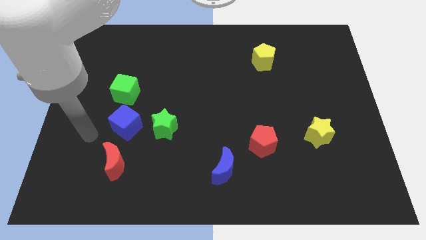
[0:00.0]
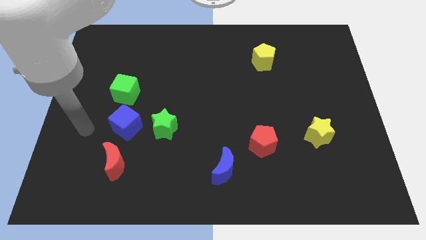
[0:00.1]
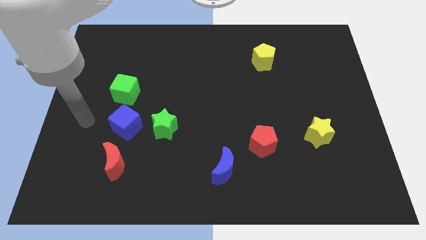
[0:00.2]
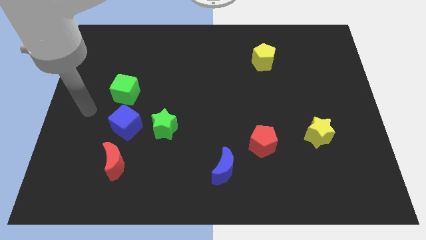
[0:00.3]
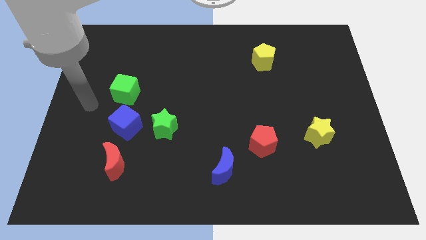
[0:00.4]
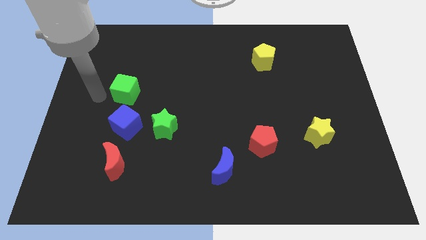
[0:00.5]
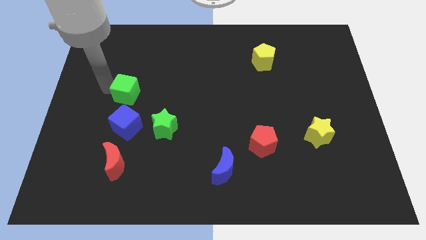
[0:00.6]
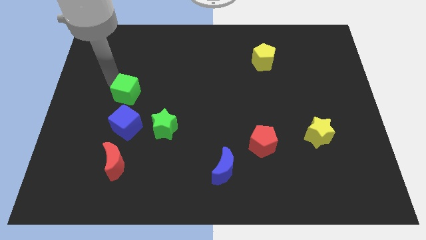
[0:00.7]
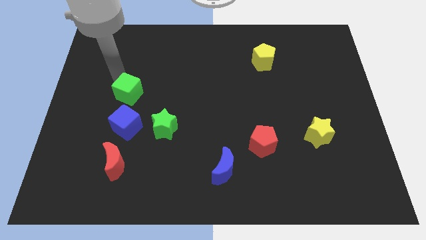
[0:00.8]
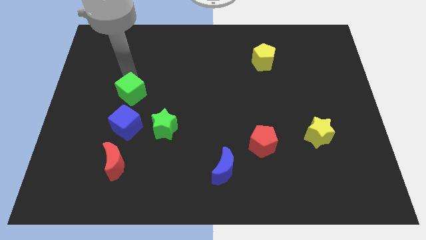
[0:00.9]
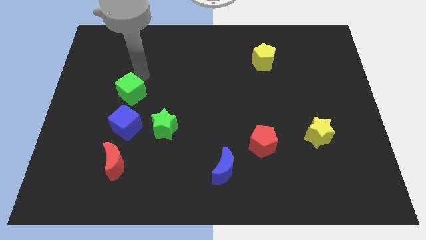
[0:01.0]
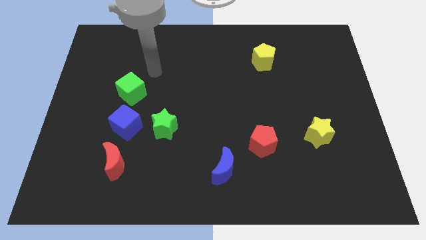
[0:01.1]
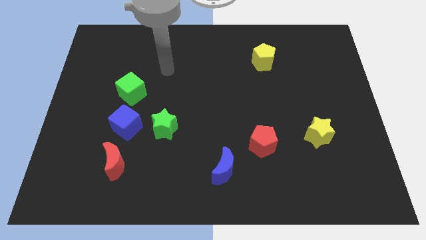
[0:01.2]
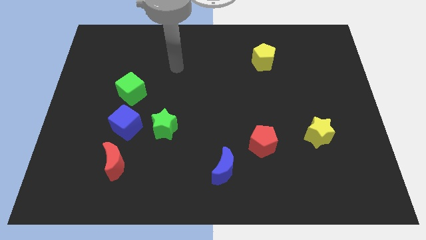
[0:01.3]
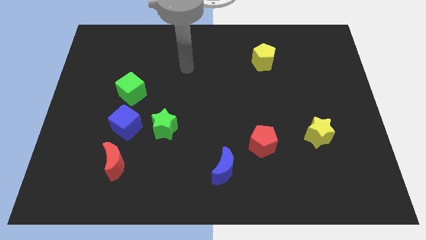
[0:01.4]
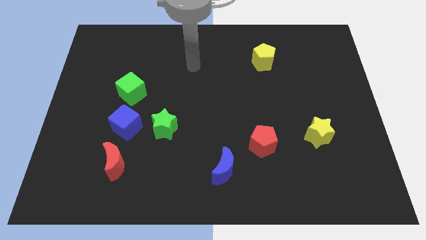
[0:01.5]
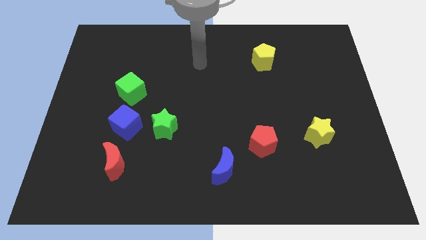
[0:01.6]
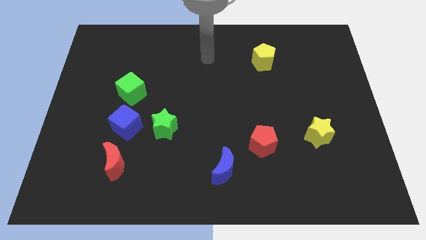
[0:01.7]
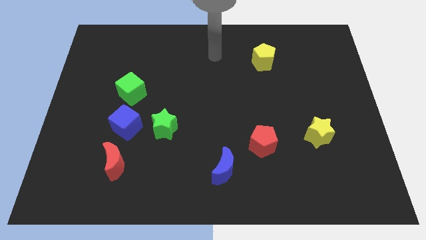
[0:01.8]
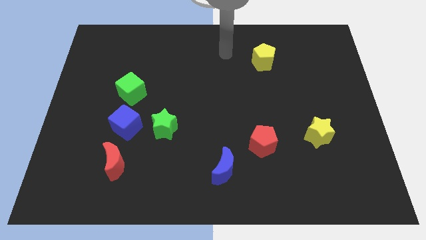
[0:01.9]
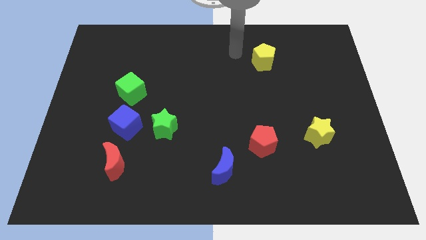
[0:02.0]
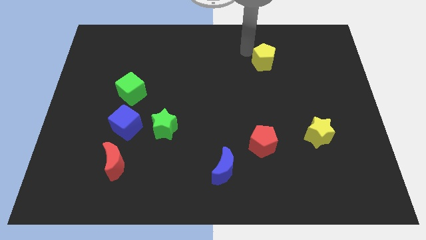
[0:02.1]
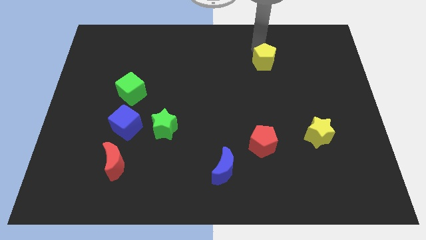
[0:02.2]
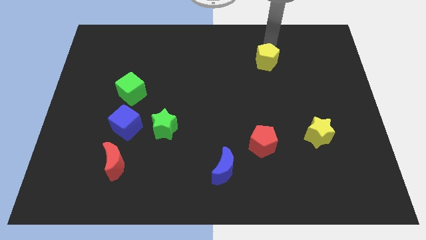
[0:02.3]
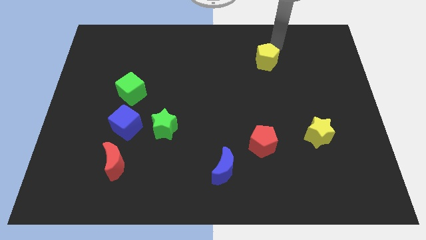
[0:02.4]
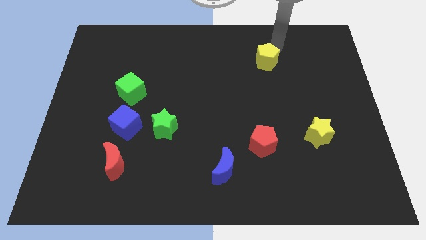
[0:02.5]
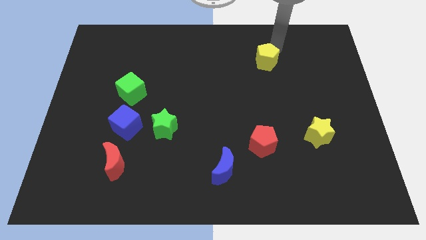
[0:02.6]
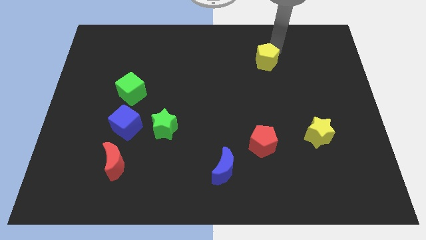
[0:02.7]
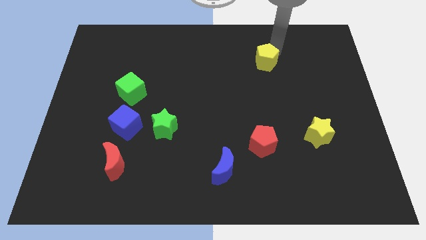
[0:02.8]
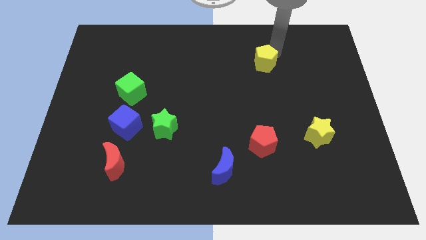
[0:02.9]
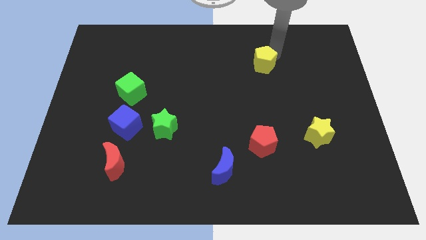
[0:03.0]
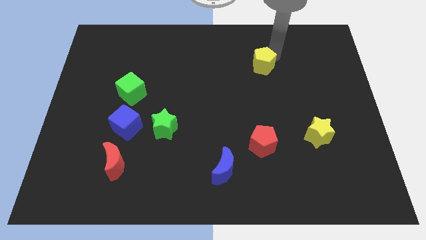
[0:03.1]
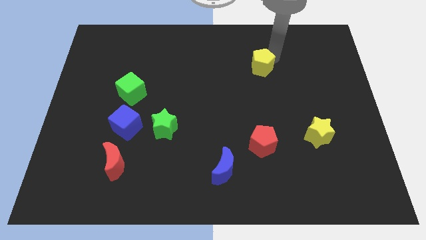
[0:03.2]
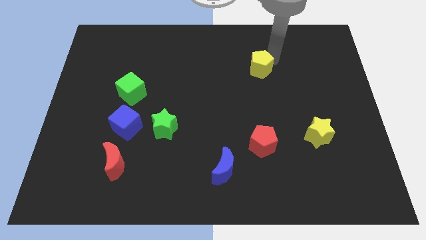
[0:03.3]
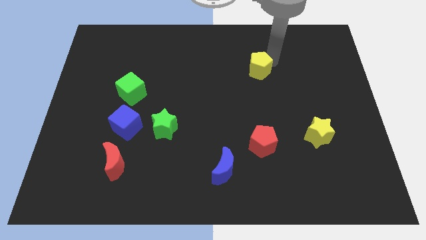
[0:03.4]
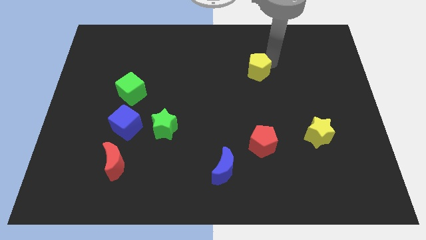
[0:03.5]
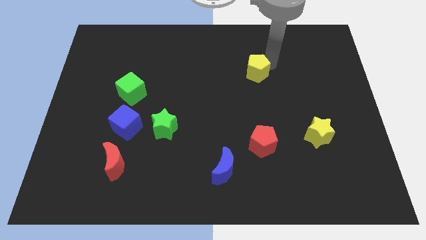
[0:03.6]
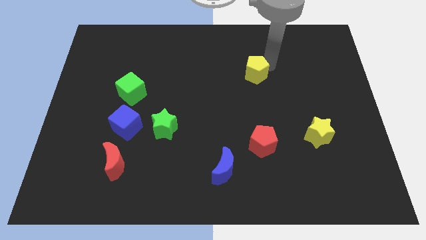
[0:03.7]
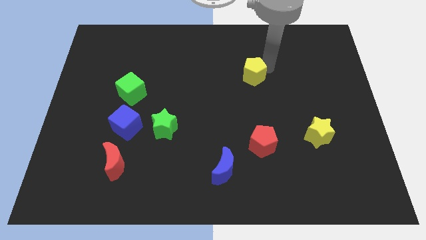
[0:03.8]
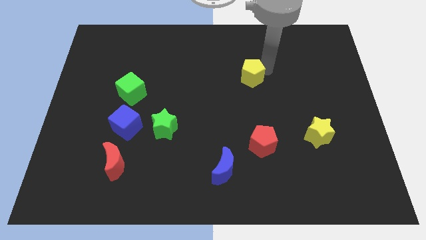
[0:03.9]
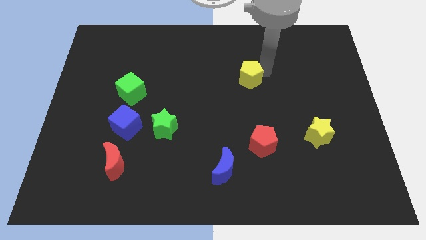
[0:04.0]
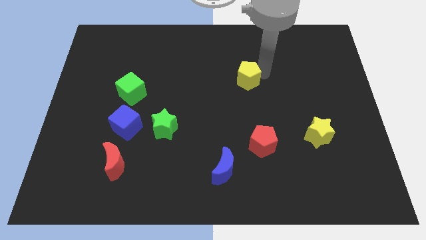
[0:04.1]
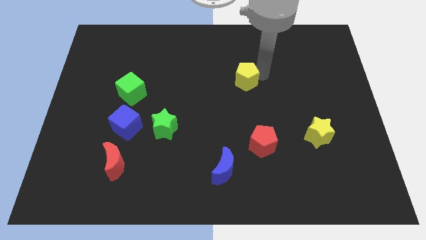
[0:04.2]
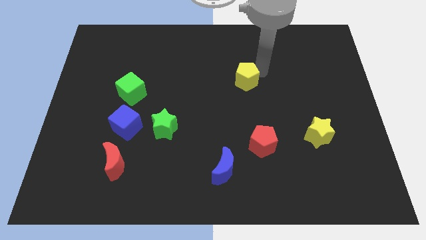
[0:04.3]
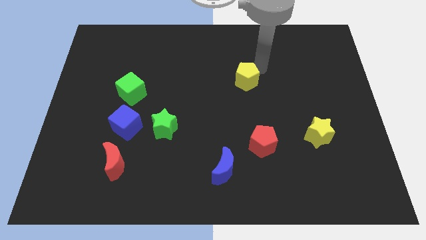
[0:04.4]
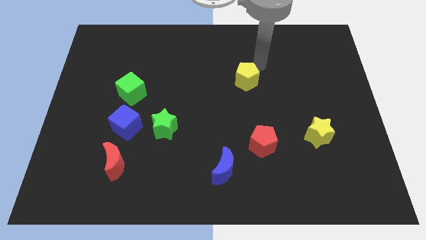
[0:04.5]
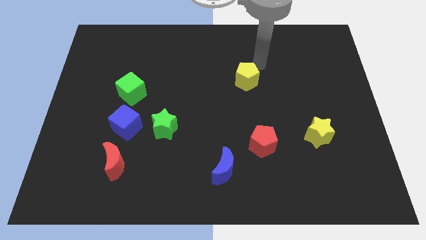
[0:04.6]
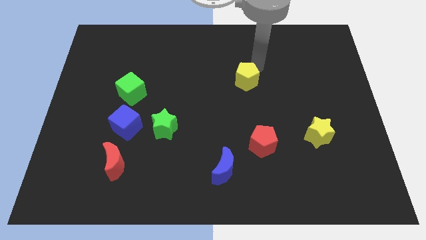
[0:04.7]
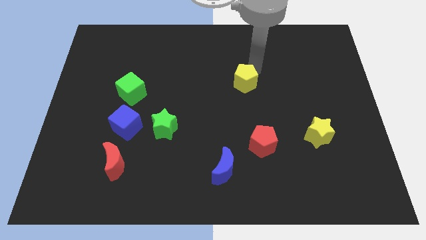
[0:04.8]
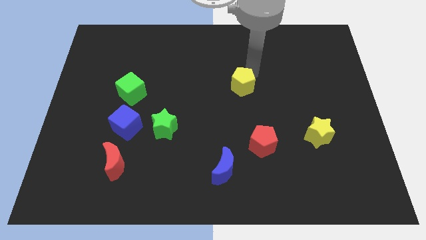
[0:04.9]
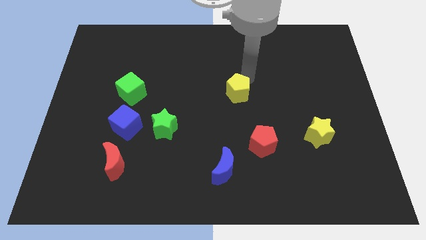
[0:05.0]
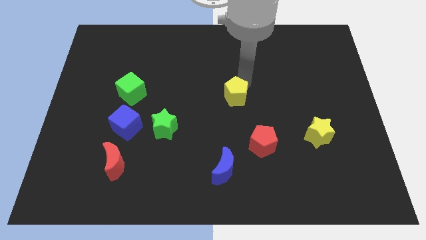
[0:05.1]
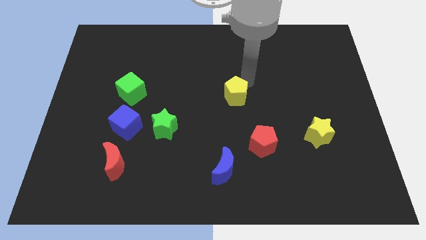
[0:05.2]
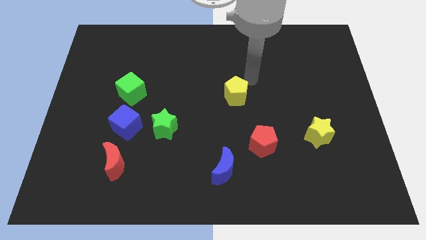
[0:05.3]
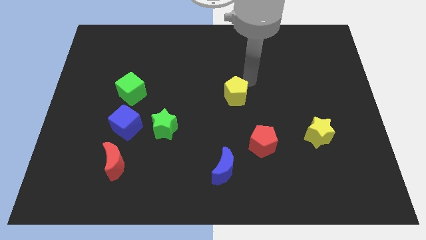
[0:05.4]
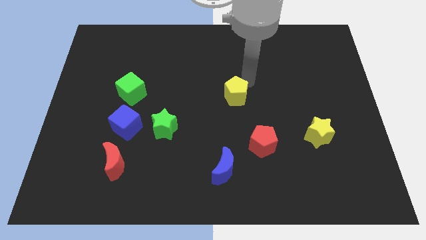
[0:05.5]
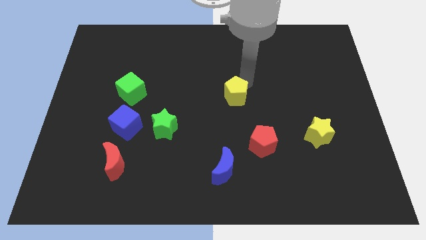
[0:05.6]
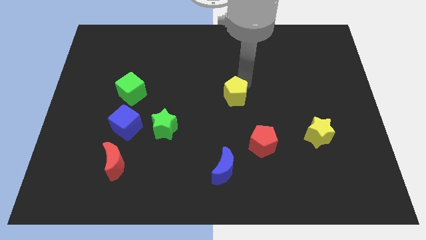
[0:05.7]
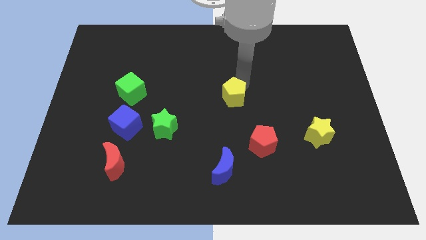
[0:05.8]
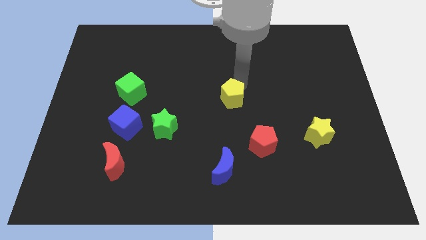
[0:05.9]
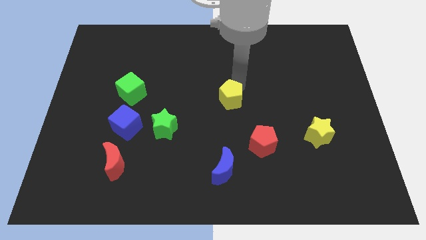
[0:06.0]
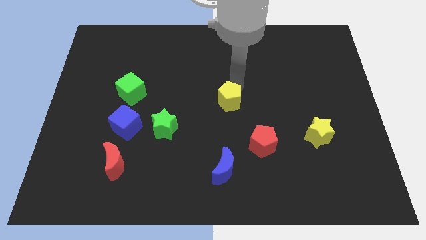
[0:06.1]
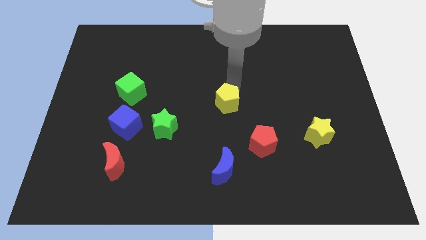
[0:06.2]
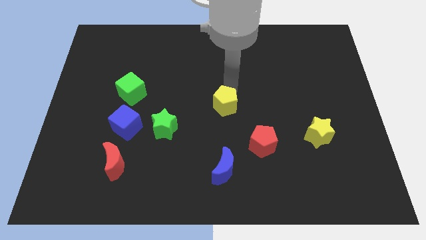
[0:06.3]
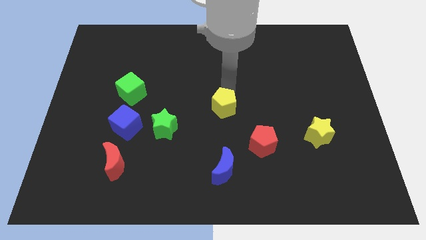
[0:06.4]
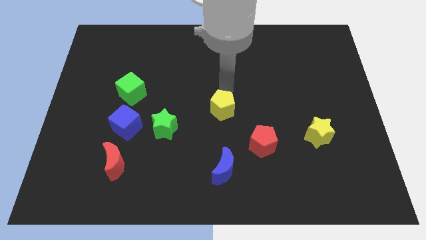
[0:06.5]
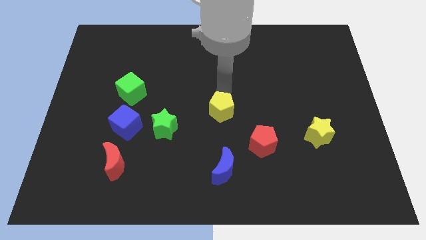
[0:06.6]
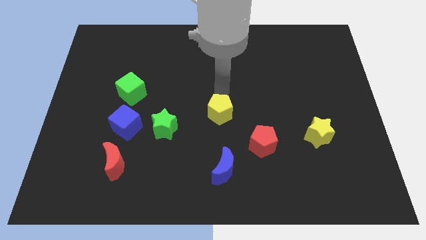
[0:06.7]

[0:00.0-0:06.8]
push the yellow pentagon to the right of the green star
